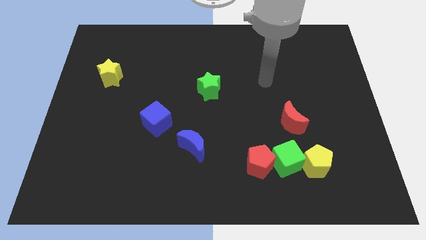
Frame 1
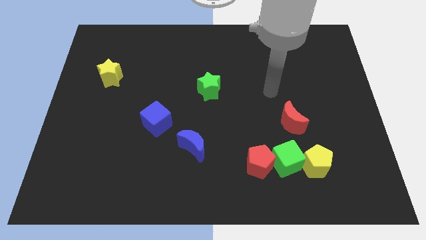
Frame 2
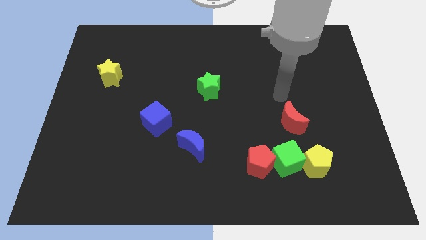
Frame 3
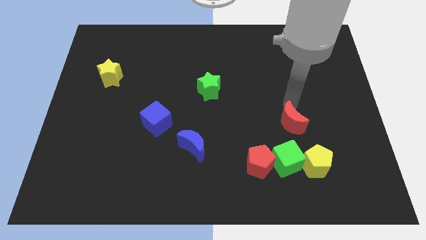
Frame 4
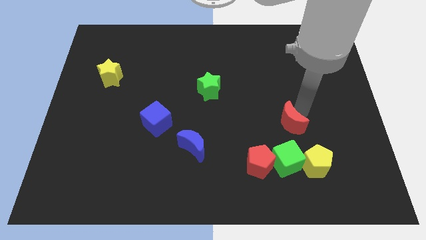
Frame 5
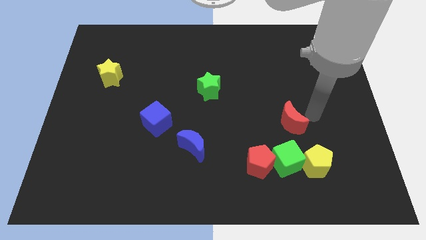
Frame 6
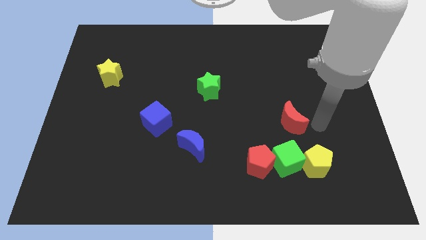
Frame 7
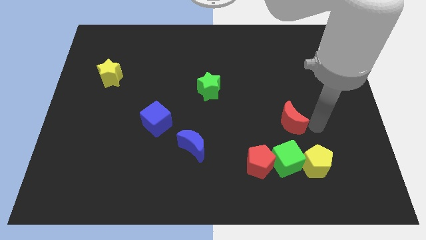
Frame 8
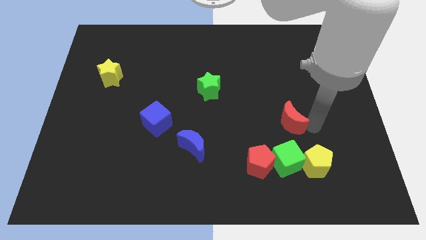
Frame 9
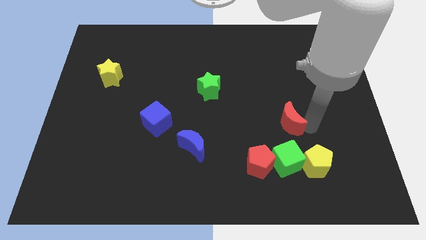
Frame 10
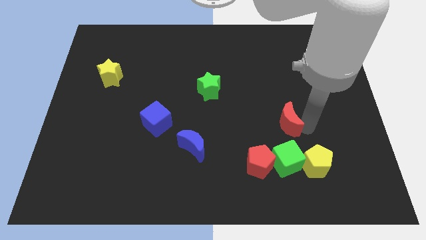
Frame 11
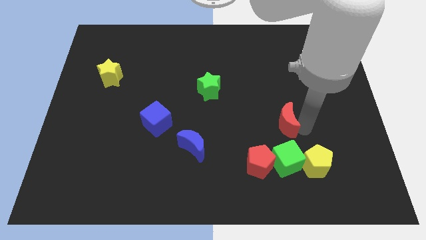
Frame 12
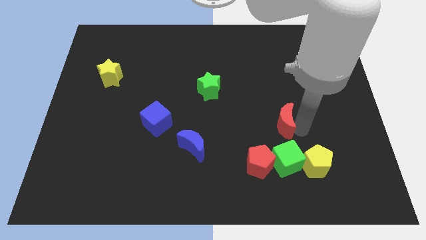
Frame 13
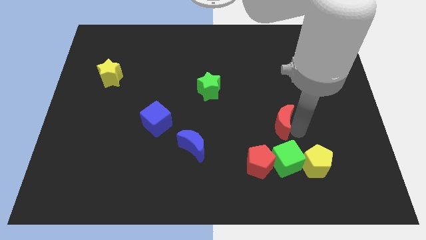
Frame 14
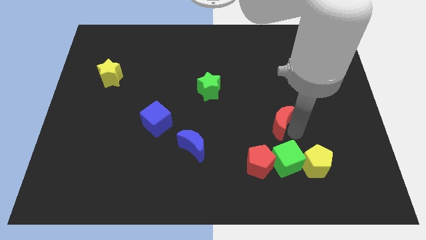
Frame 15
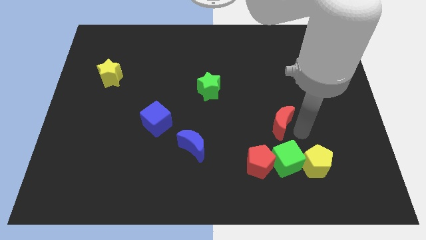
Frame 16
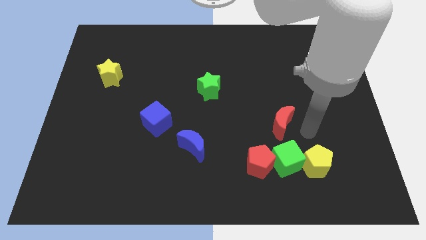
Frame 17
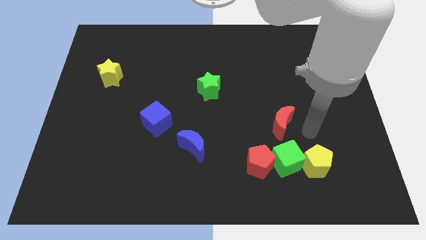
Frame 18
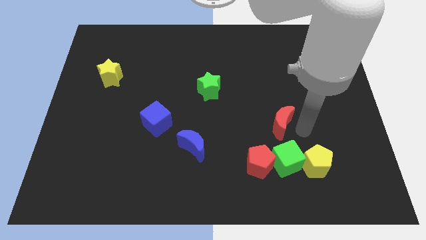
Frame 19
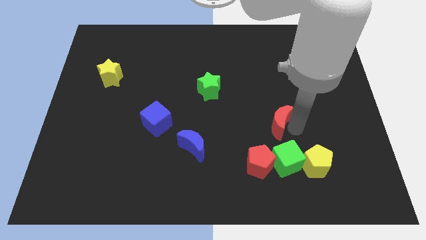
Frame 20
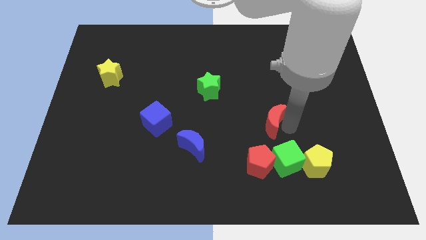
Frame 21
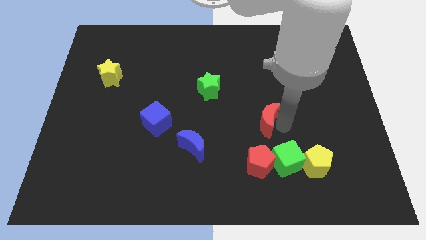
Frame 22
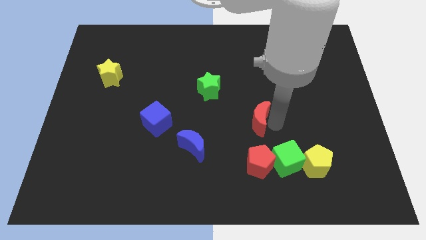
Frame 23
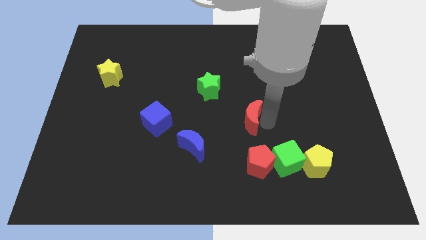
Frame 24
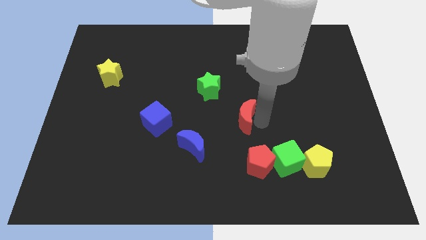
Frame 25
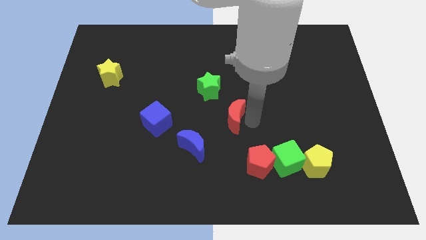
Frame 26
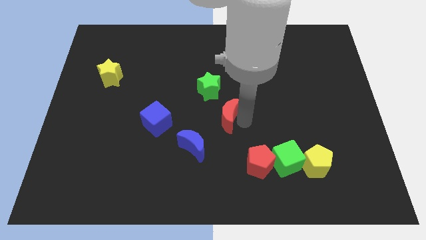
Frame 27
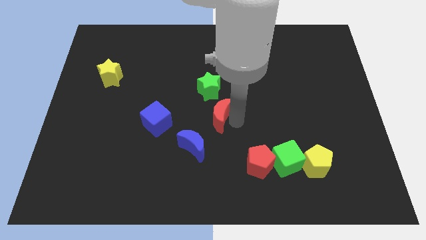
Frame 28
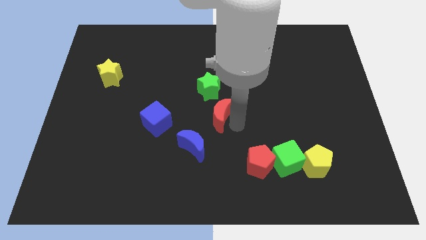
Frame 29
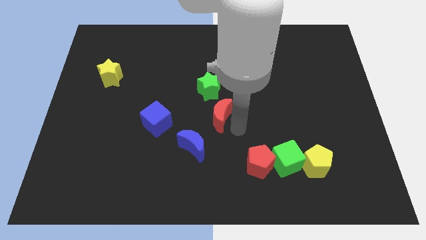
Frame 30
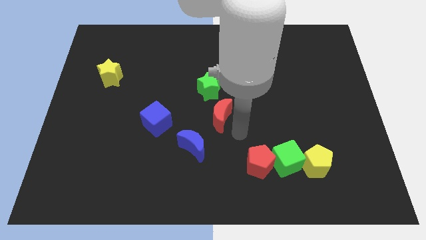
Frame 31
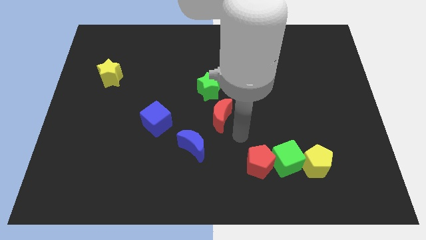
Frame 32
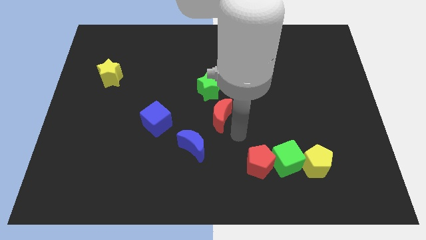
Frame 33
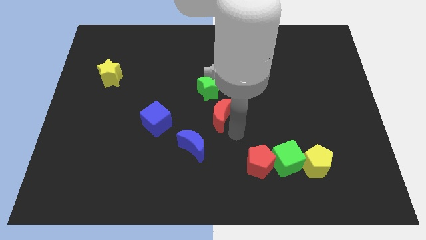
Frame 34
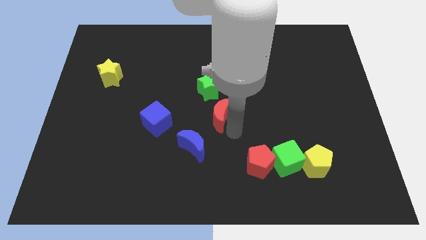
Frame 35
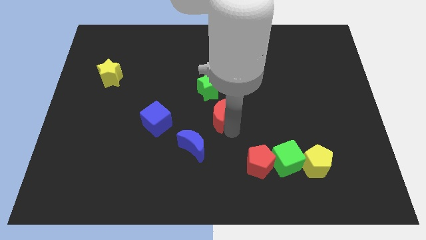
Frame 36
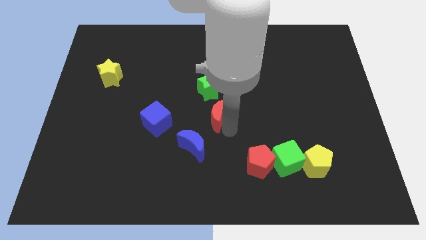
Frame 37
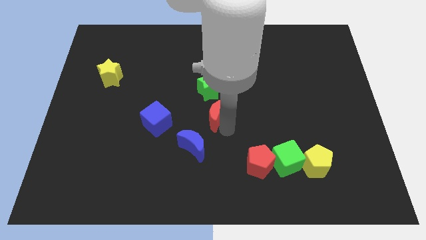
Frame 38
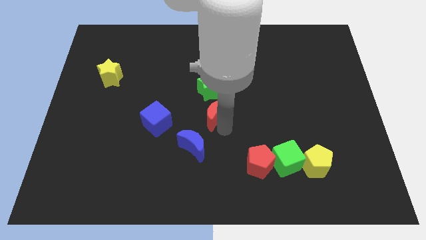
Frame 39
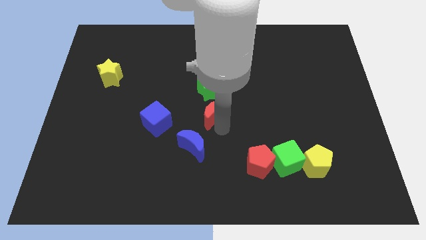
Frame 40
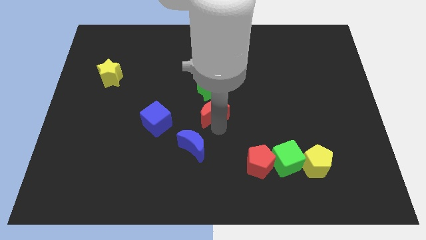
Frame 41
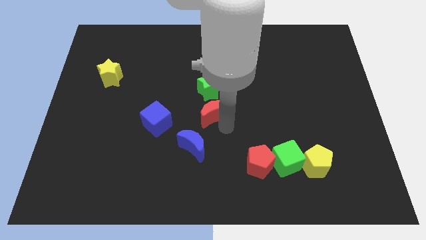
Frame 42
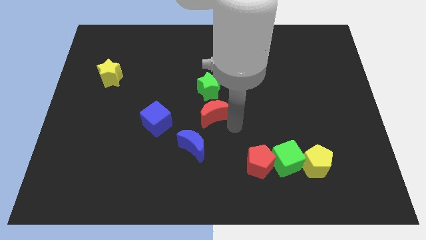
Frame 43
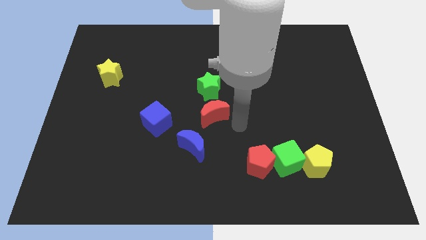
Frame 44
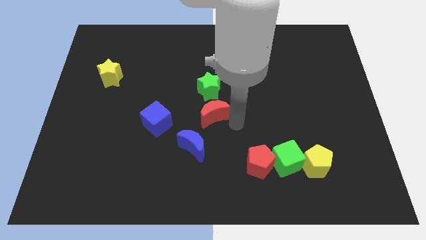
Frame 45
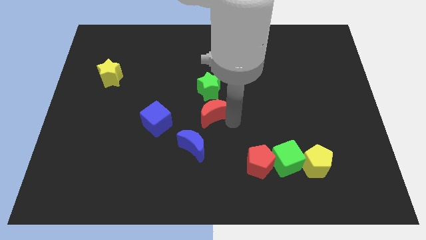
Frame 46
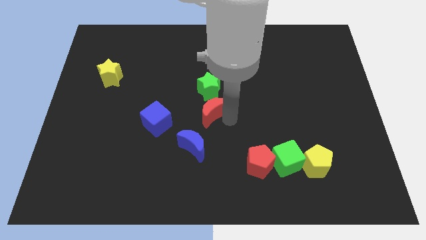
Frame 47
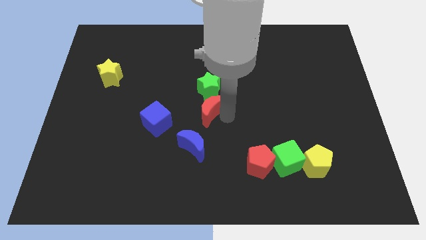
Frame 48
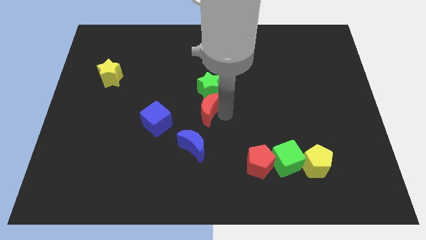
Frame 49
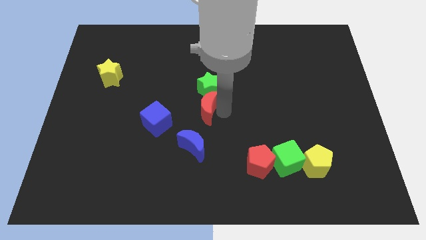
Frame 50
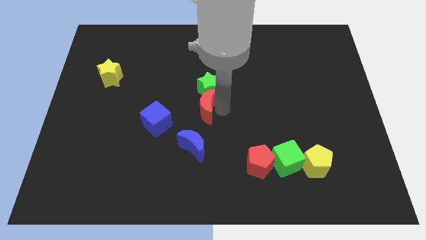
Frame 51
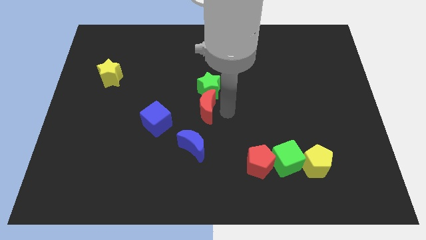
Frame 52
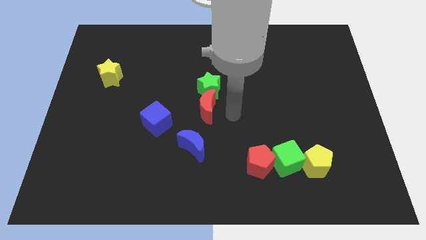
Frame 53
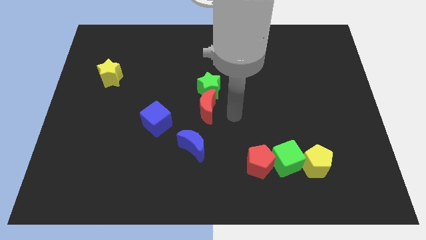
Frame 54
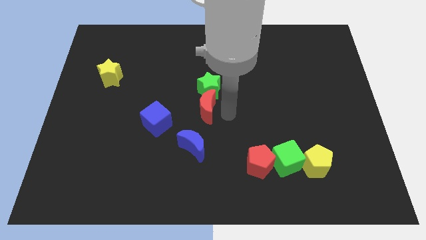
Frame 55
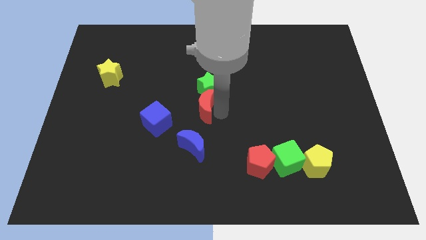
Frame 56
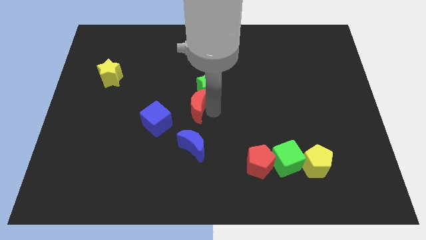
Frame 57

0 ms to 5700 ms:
slide the red moon to the top right side of the blue cube

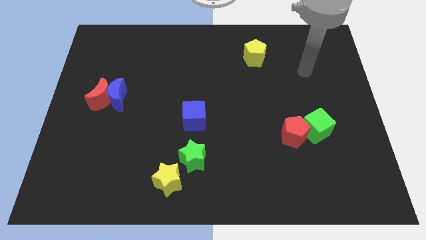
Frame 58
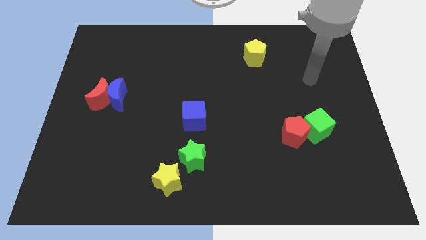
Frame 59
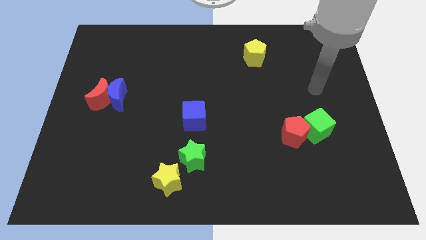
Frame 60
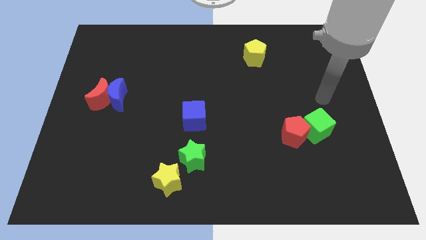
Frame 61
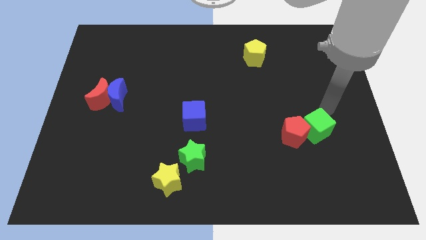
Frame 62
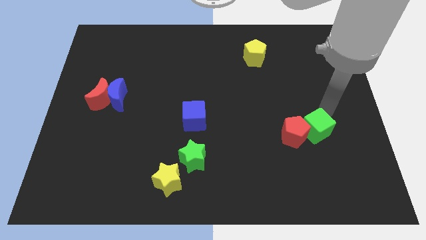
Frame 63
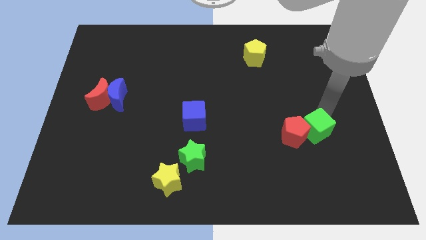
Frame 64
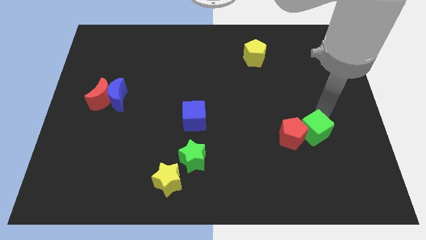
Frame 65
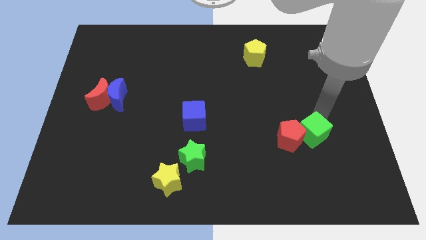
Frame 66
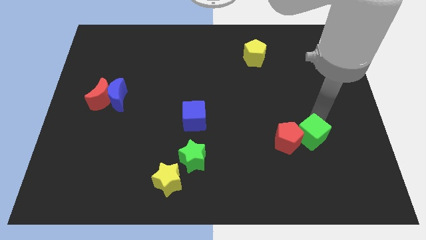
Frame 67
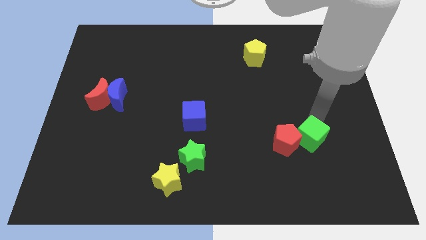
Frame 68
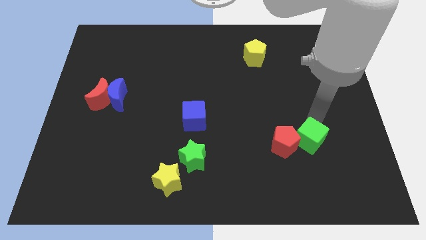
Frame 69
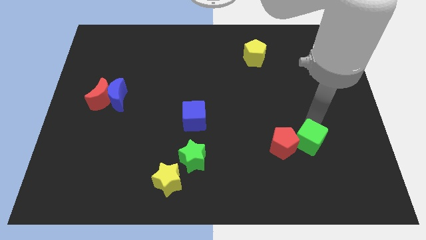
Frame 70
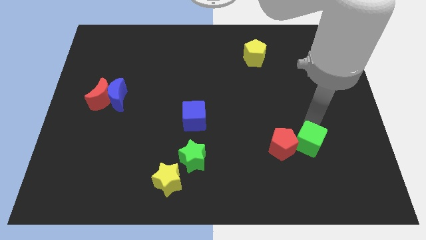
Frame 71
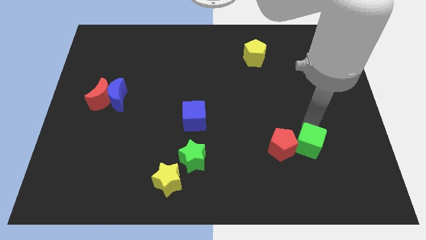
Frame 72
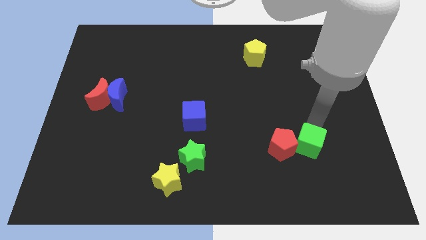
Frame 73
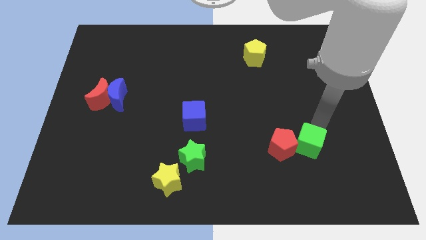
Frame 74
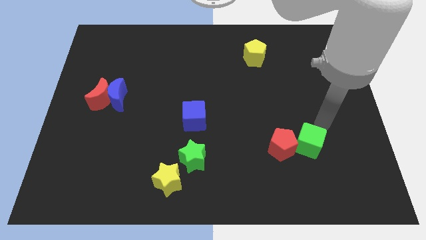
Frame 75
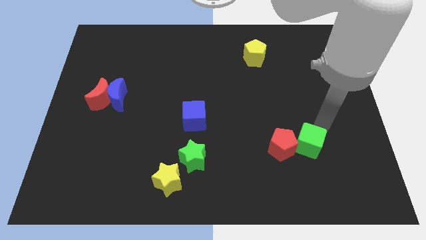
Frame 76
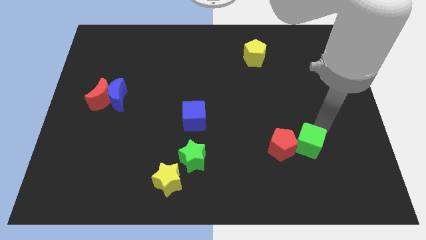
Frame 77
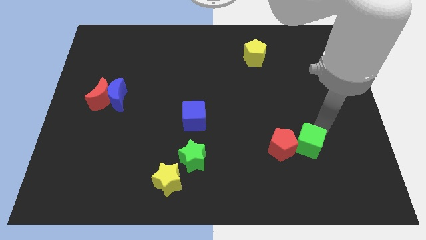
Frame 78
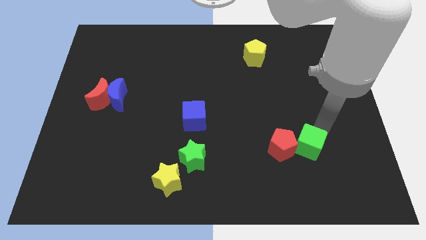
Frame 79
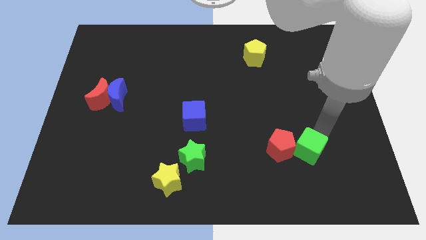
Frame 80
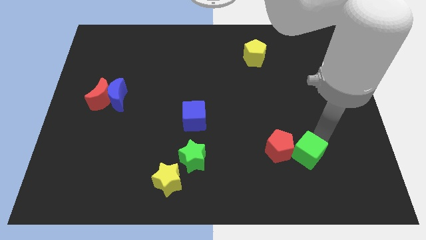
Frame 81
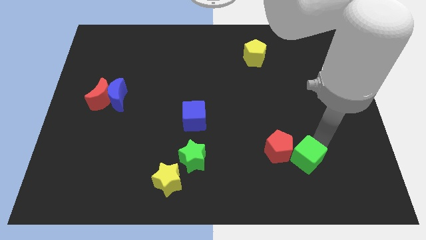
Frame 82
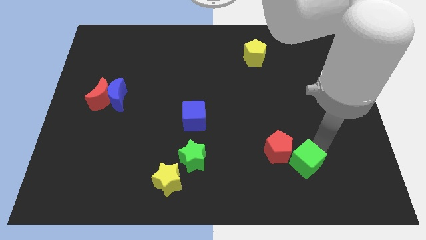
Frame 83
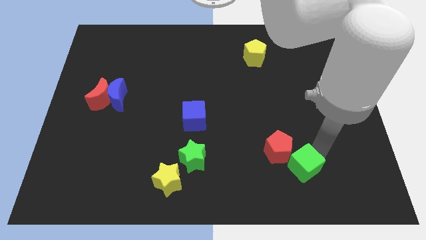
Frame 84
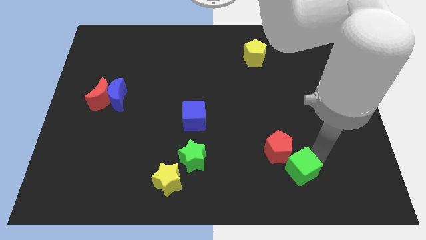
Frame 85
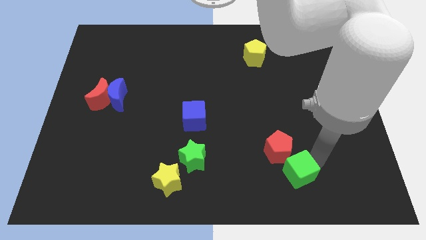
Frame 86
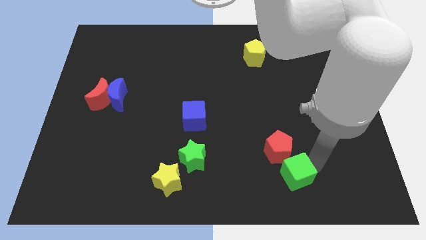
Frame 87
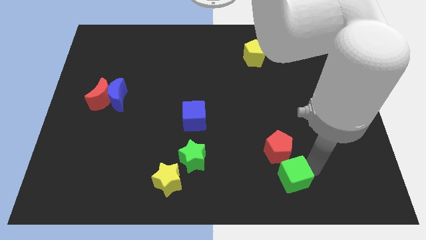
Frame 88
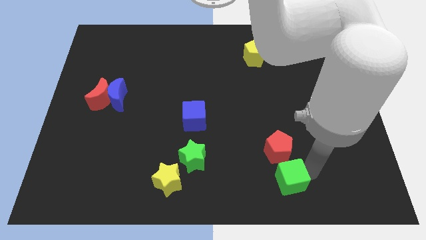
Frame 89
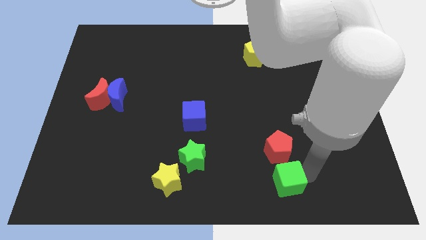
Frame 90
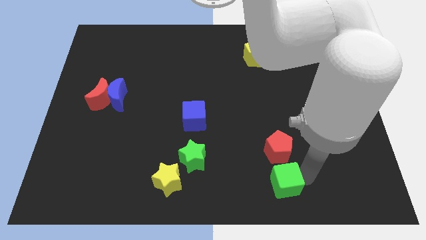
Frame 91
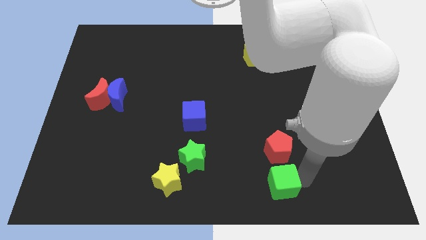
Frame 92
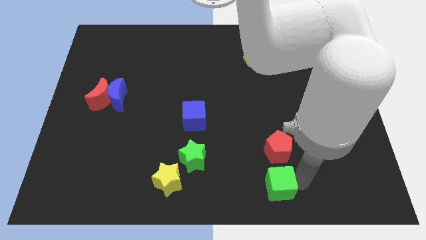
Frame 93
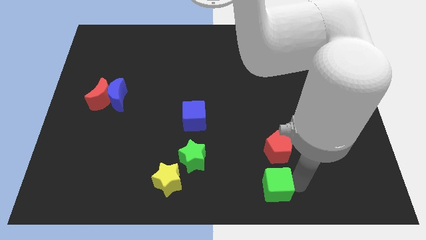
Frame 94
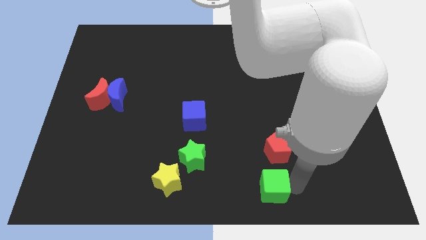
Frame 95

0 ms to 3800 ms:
slide the green cube to the bottom left side of the red pentagon
